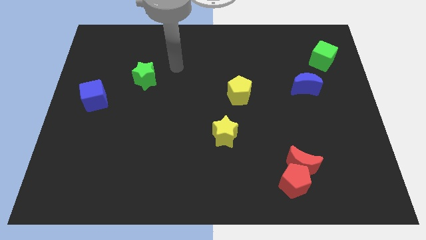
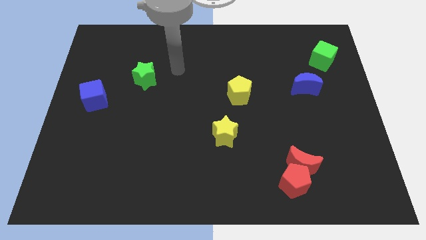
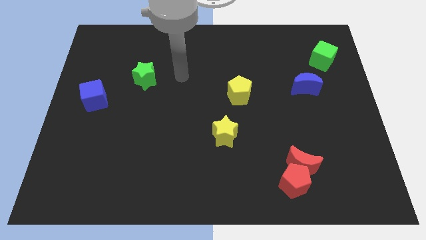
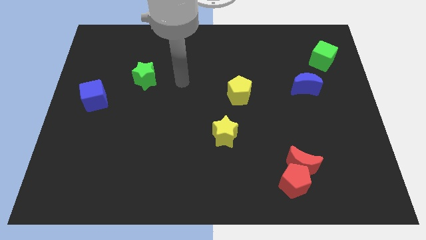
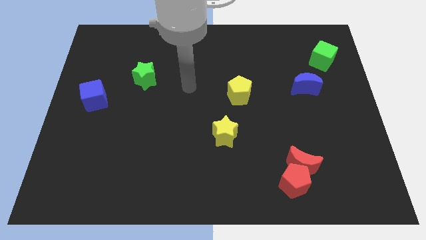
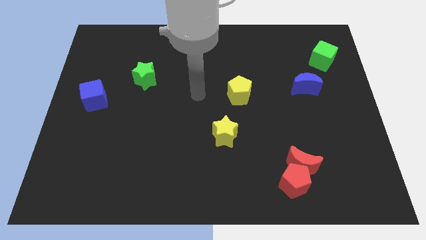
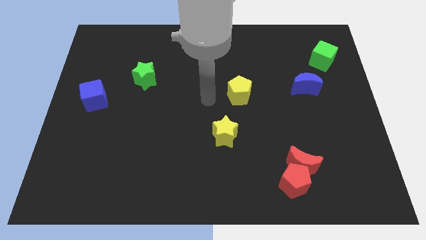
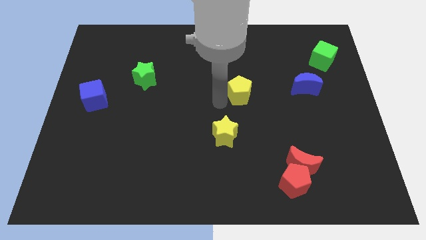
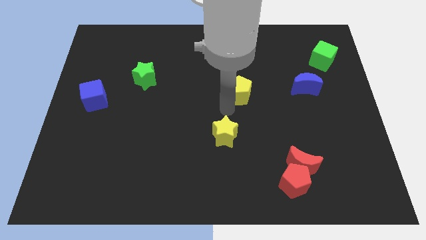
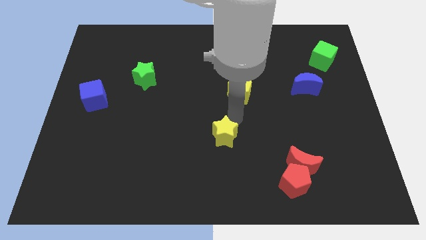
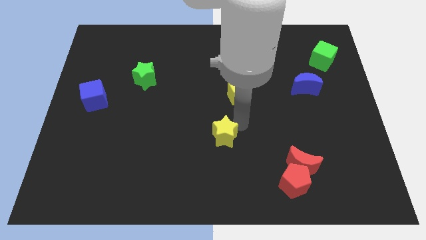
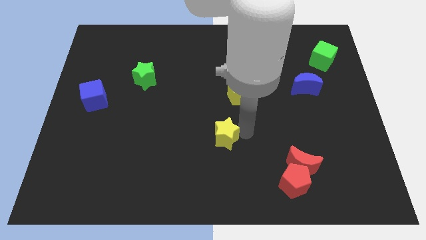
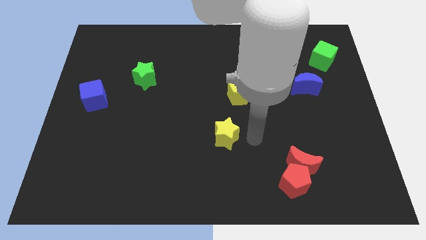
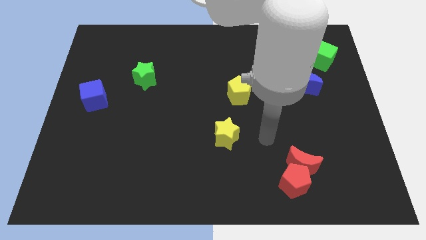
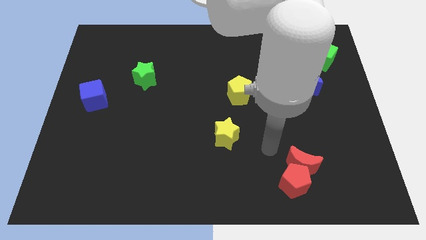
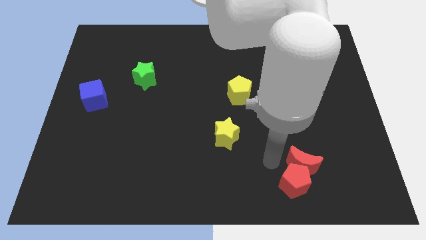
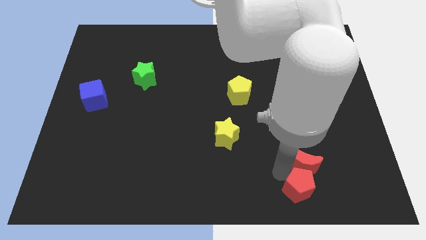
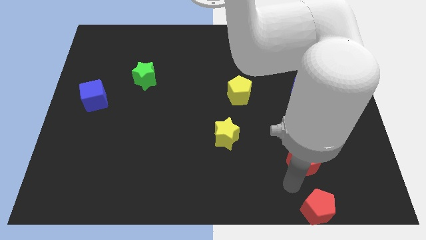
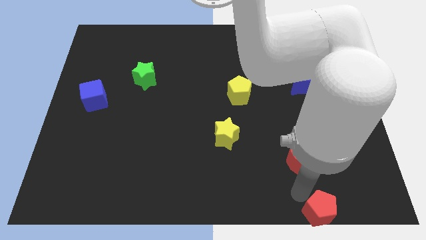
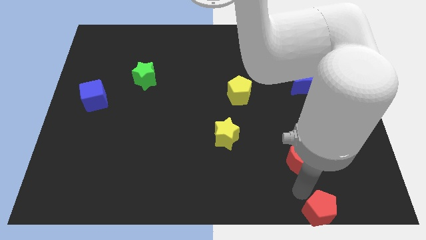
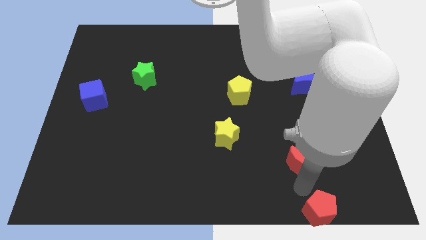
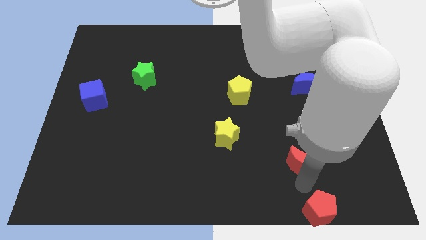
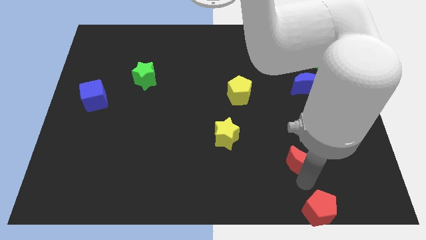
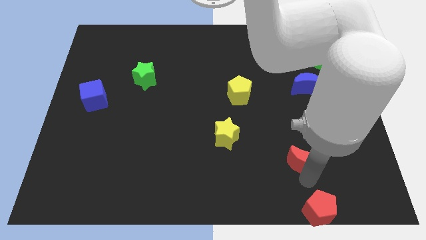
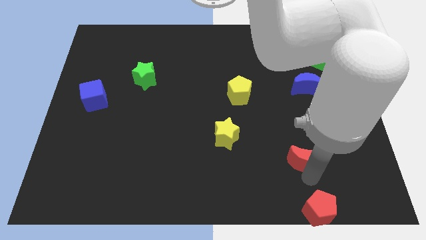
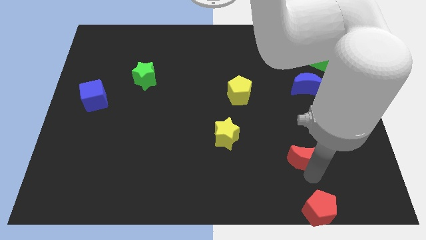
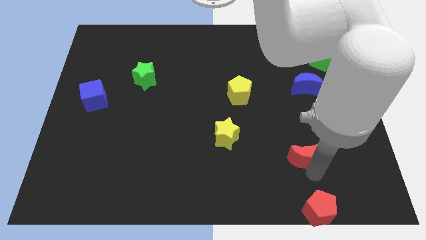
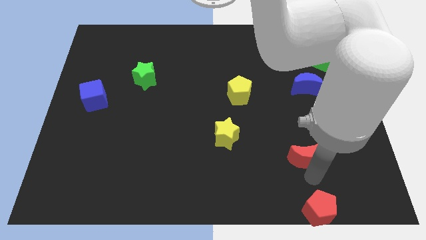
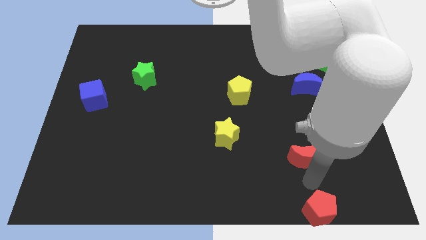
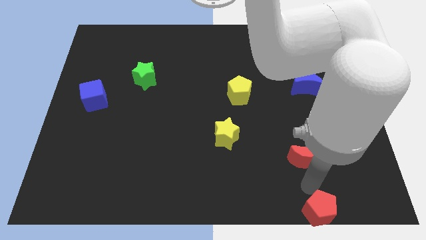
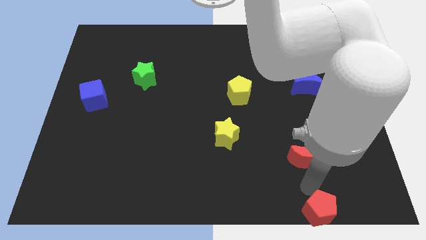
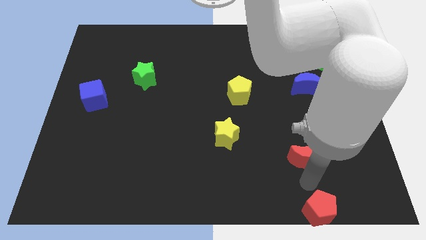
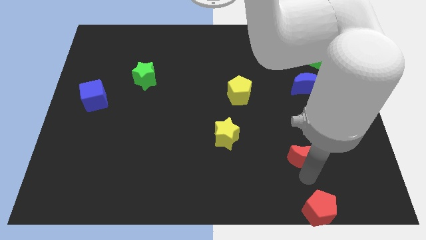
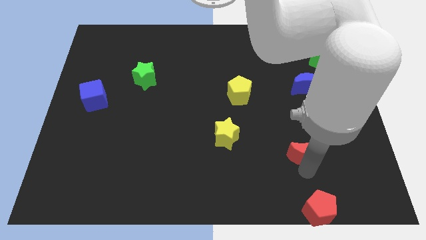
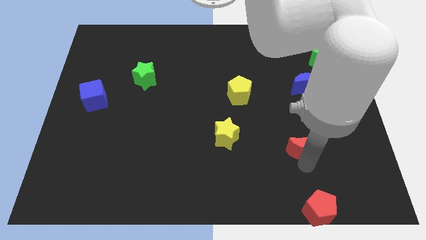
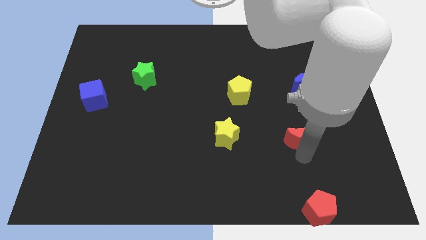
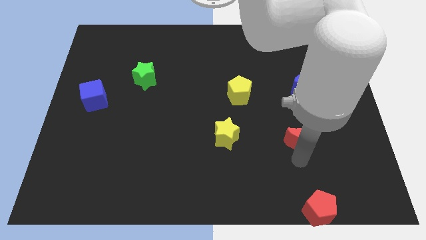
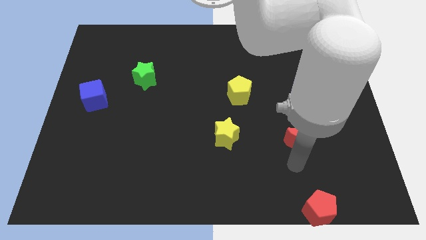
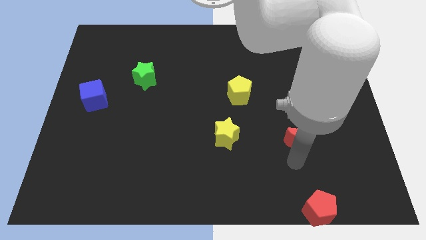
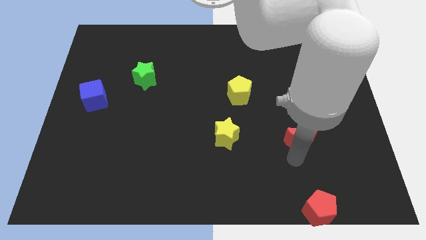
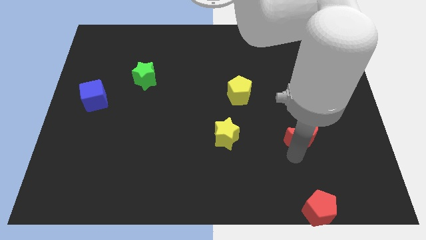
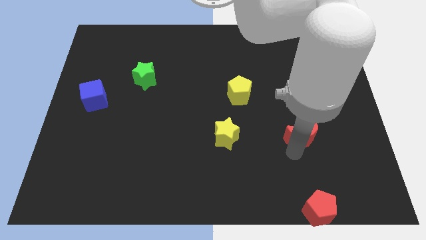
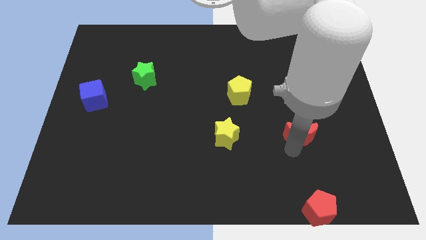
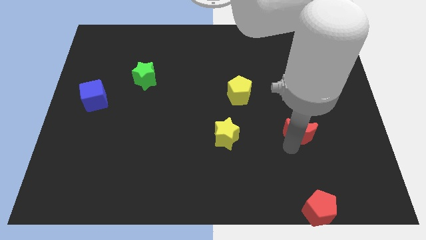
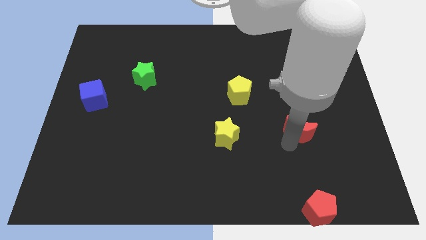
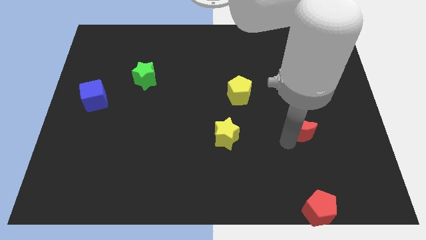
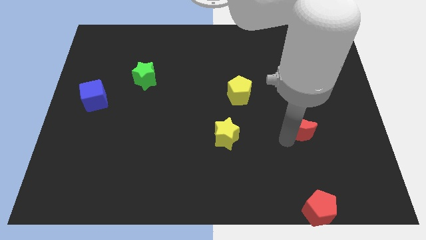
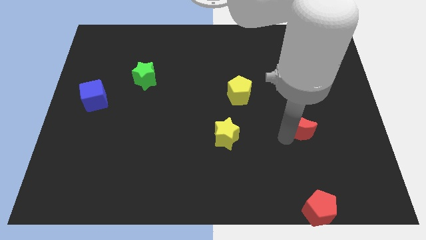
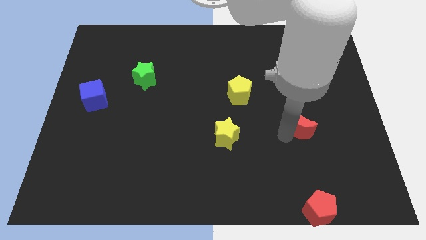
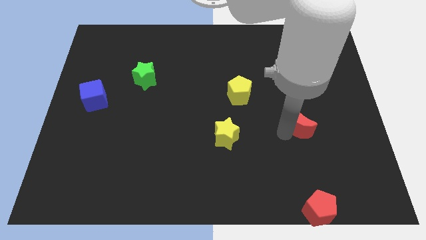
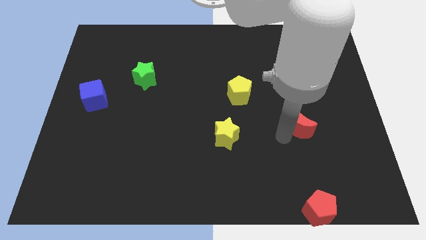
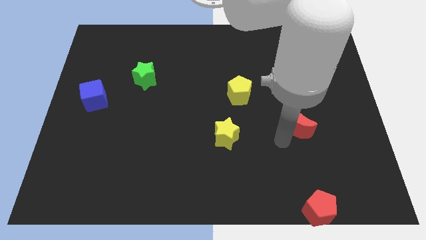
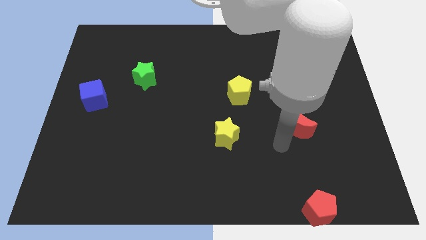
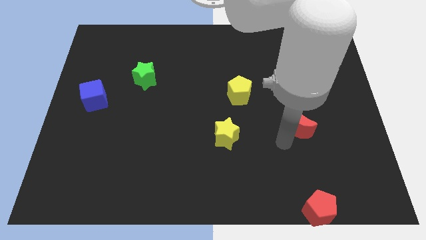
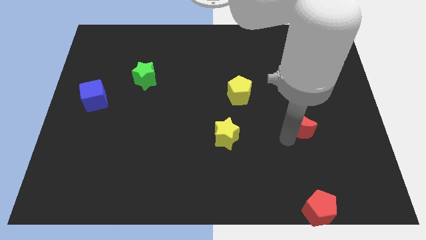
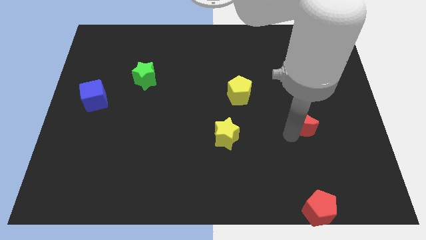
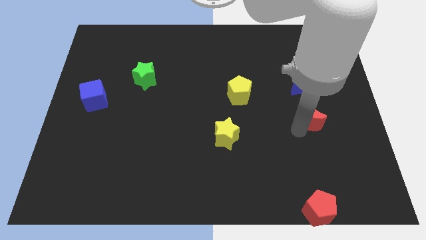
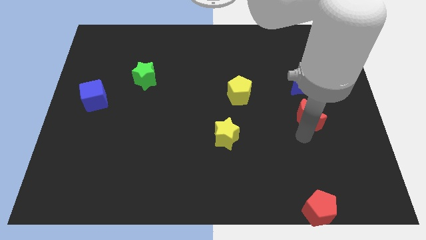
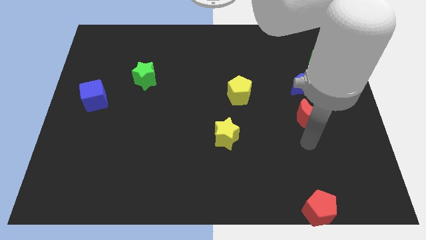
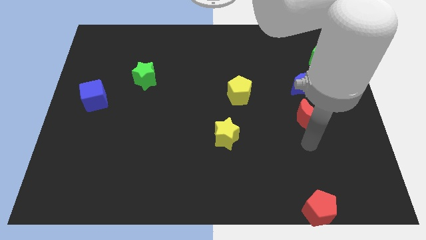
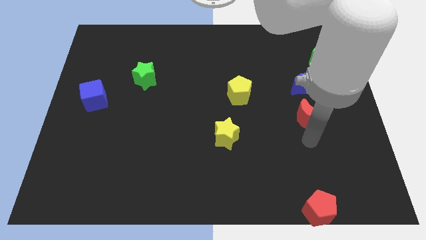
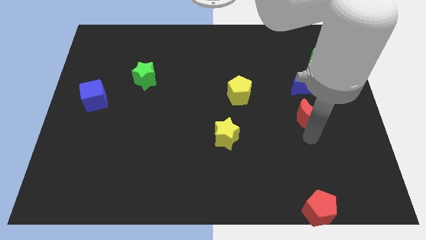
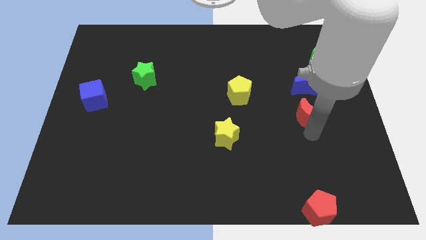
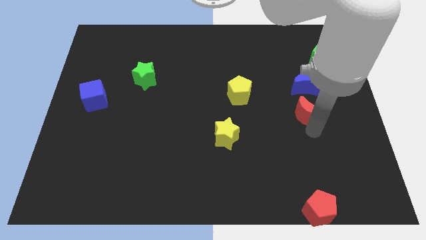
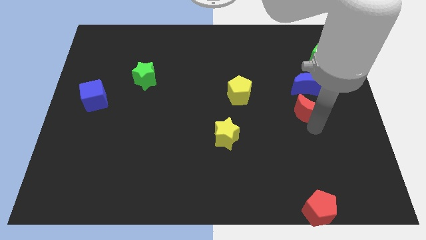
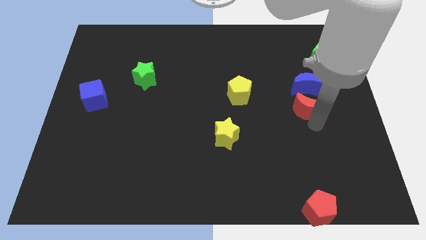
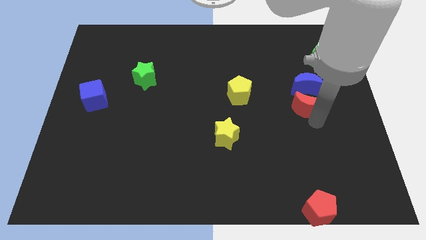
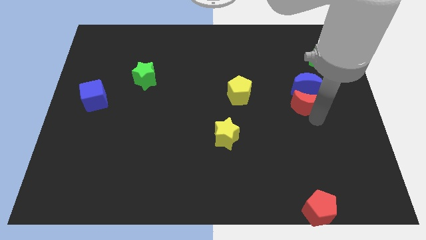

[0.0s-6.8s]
put the red moon close to the blue moon

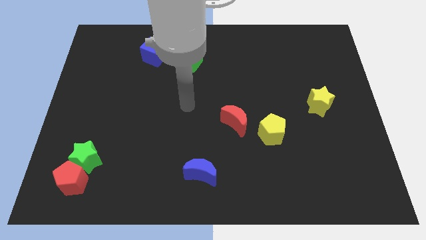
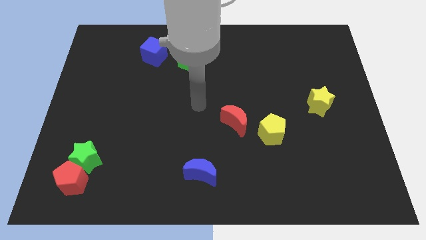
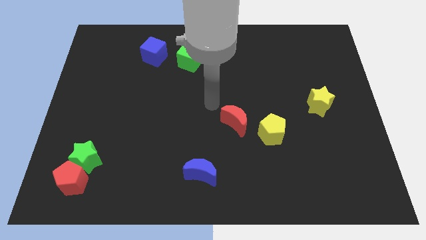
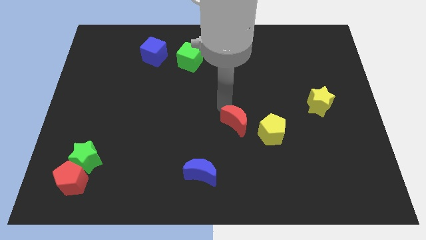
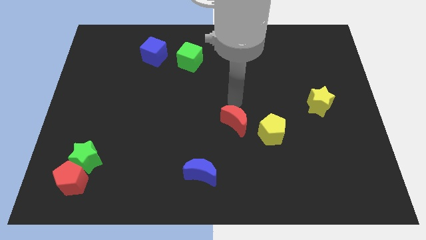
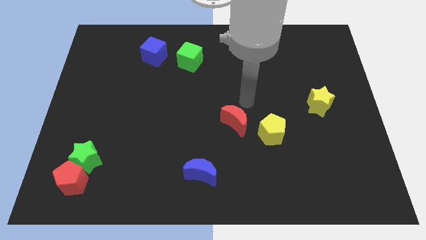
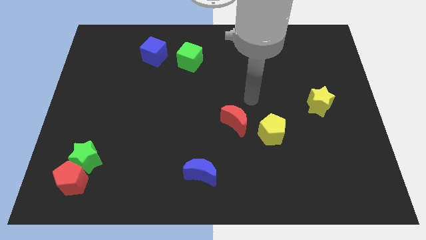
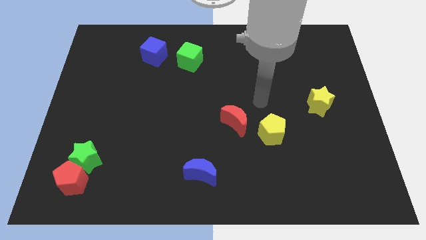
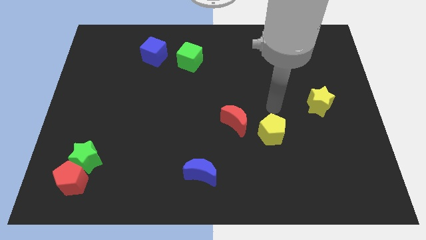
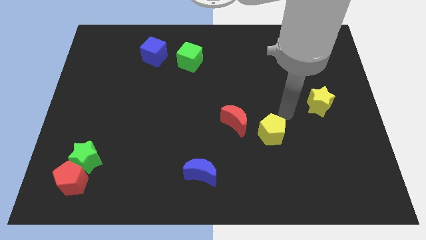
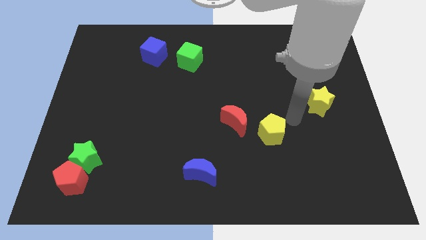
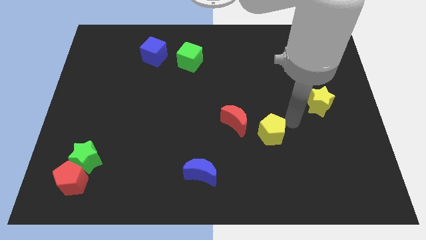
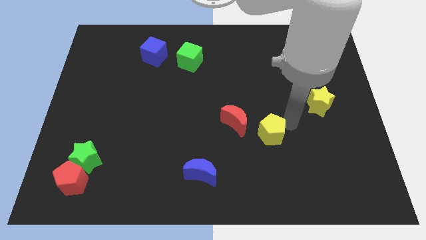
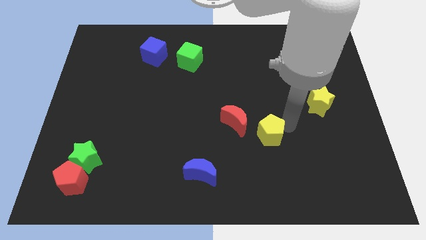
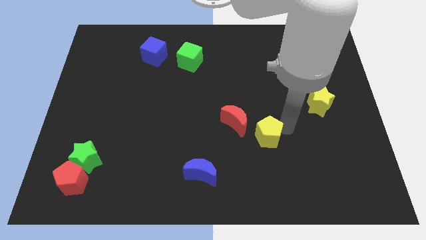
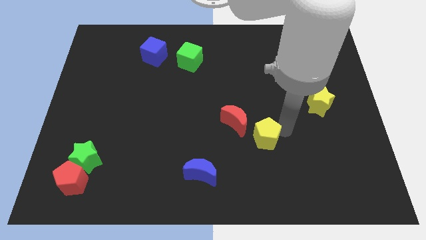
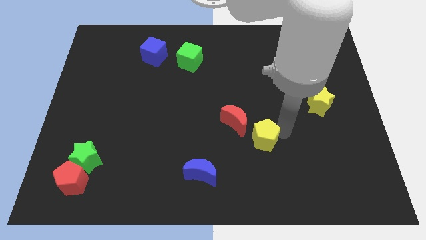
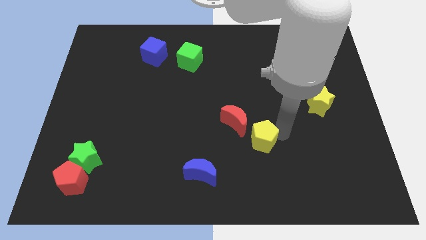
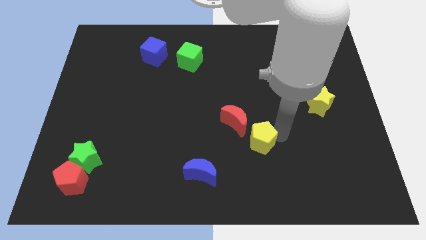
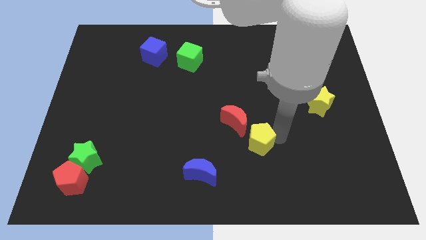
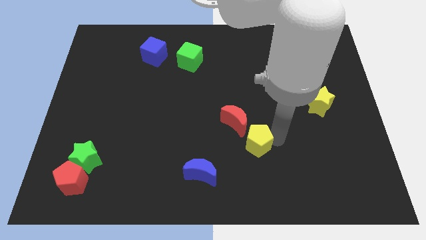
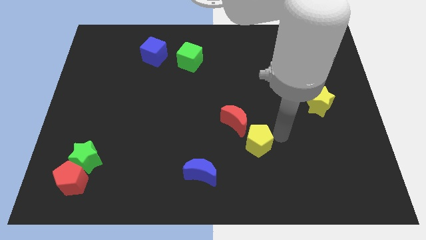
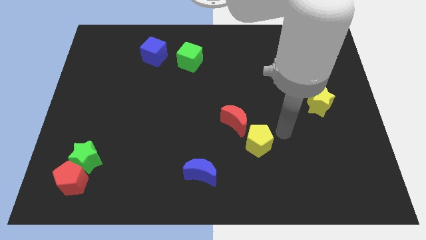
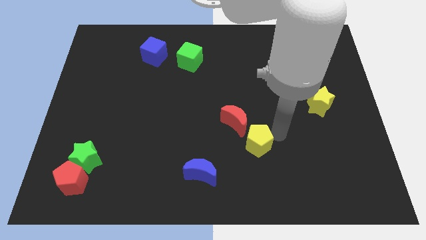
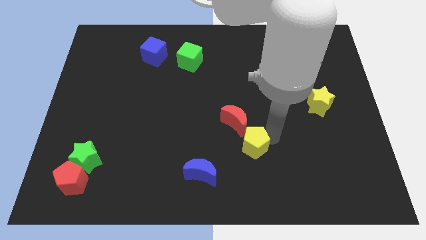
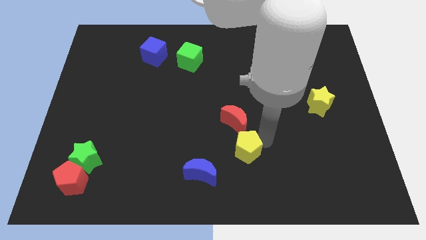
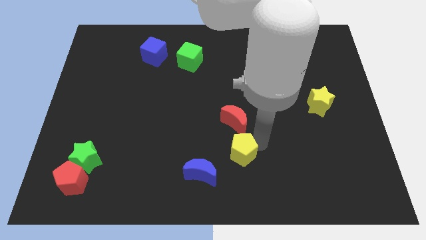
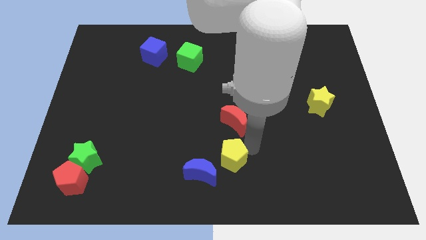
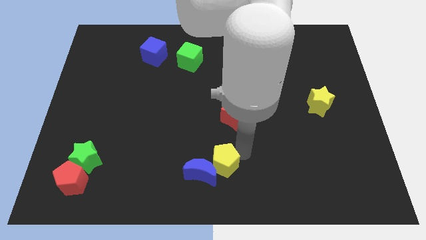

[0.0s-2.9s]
put the yellow pentagon next to the blue moon
